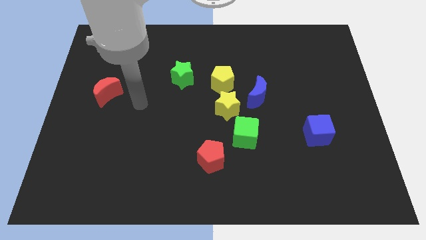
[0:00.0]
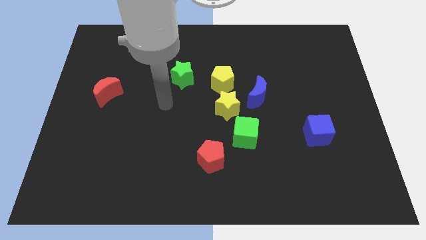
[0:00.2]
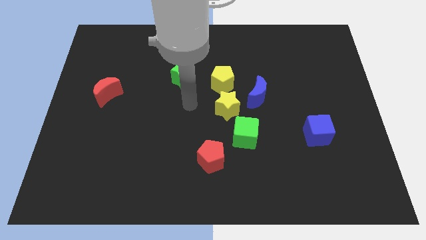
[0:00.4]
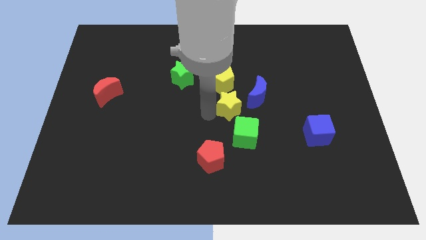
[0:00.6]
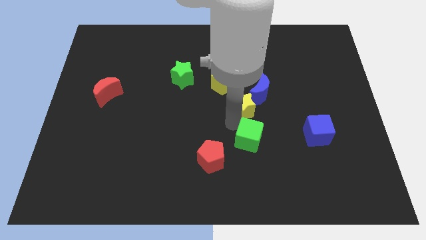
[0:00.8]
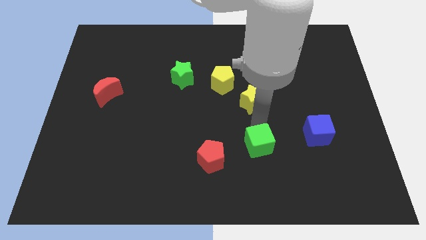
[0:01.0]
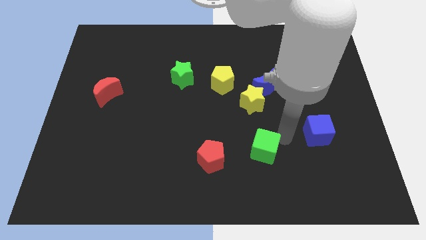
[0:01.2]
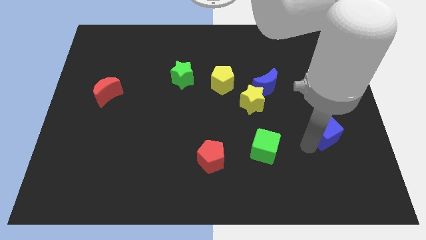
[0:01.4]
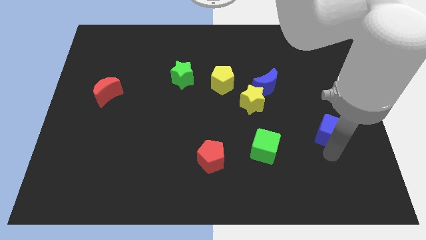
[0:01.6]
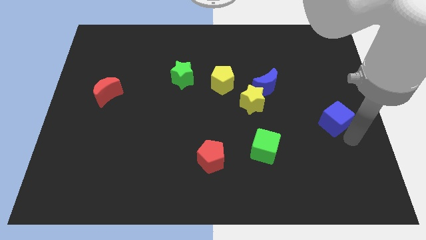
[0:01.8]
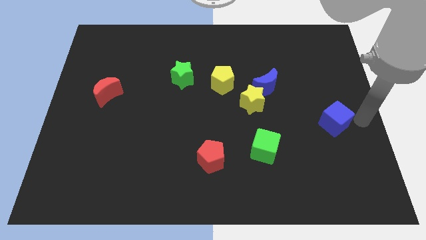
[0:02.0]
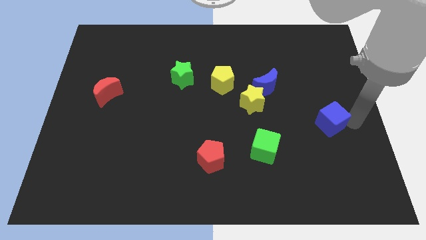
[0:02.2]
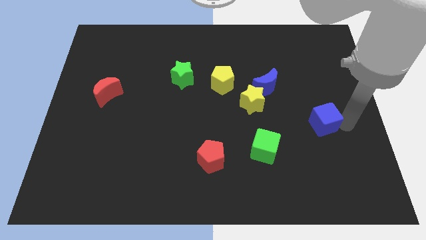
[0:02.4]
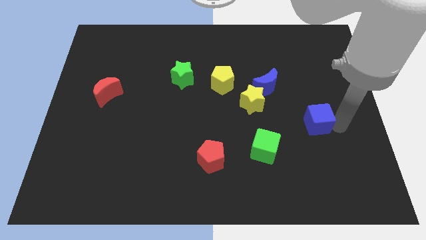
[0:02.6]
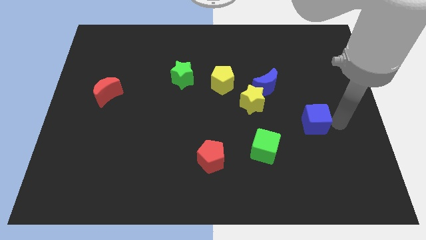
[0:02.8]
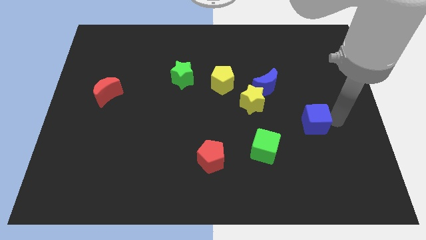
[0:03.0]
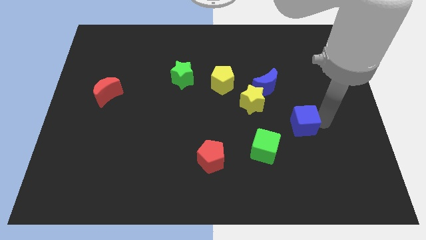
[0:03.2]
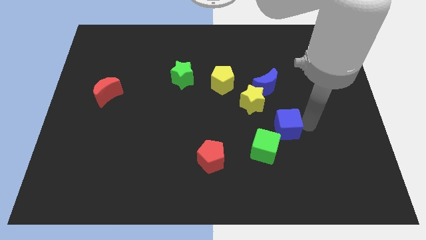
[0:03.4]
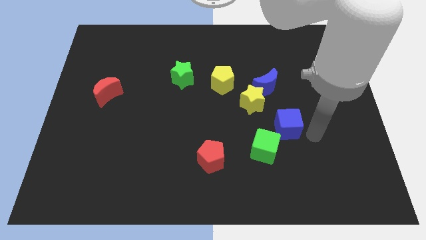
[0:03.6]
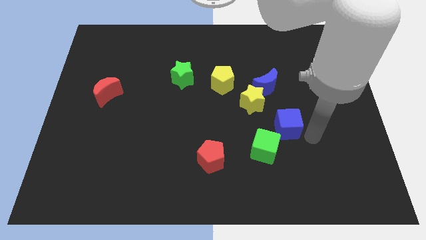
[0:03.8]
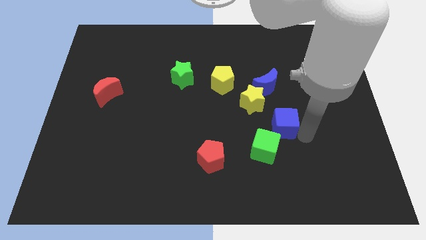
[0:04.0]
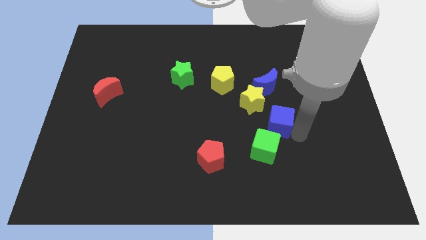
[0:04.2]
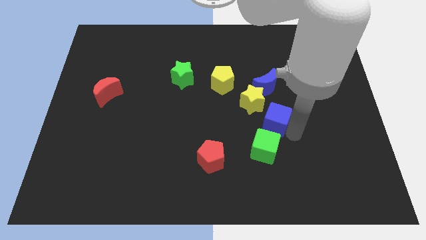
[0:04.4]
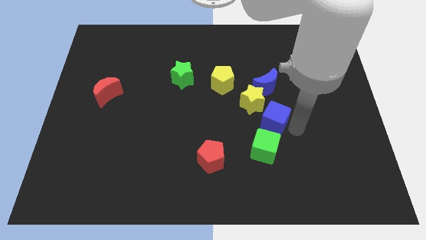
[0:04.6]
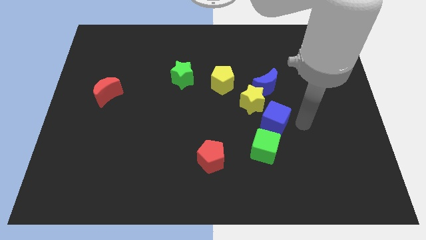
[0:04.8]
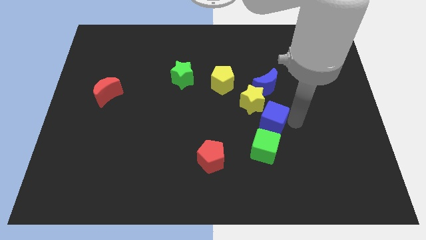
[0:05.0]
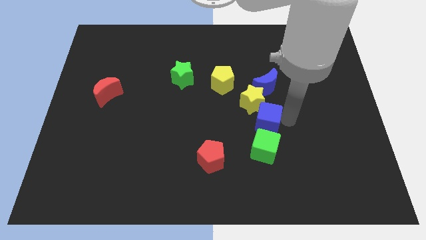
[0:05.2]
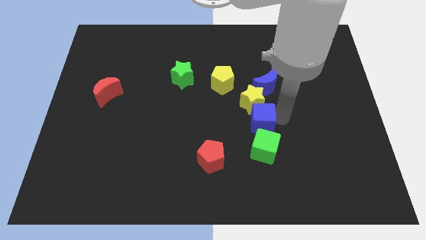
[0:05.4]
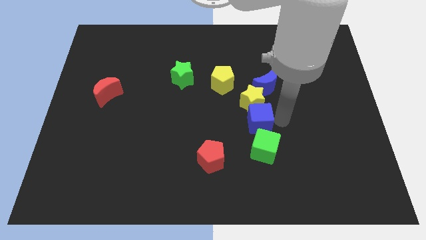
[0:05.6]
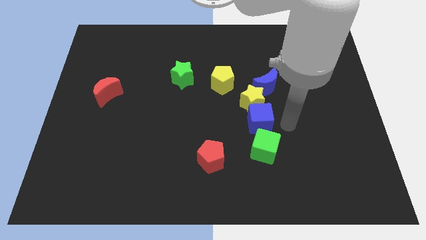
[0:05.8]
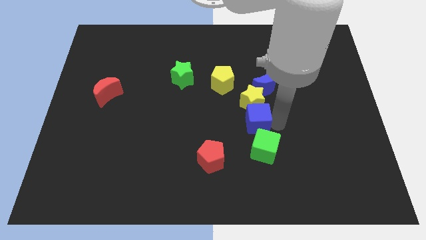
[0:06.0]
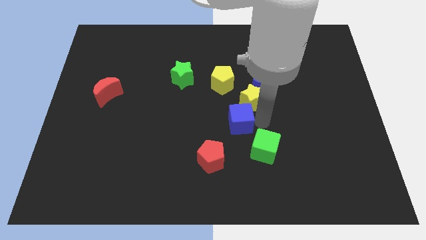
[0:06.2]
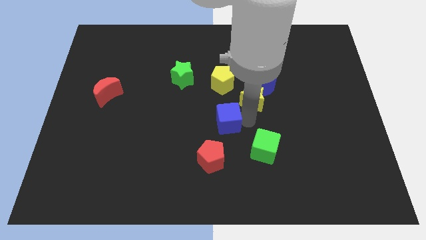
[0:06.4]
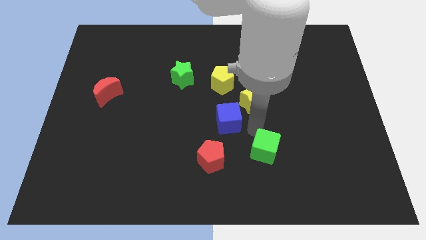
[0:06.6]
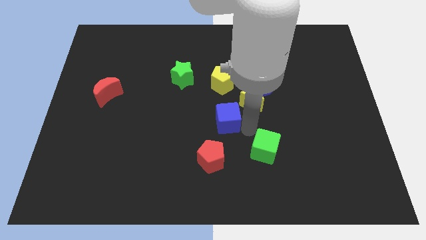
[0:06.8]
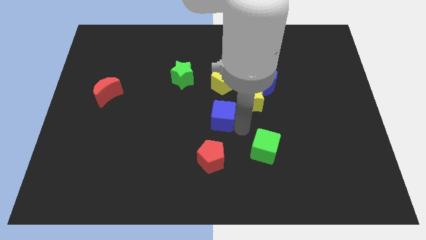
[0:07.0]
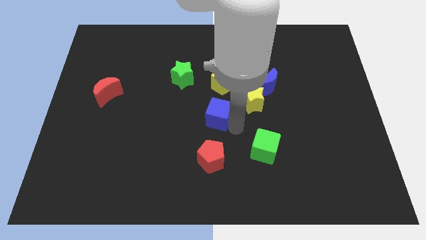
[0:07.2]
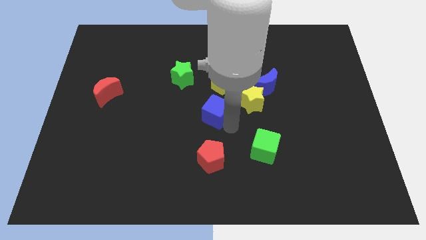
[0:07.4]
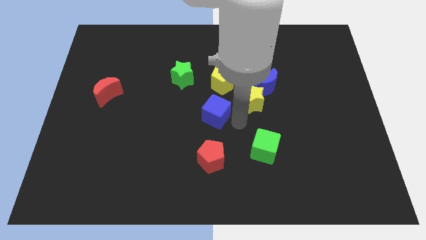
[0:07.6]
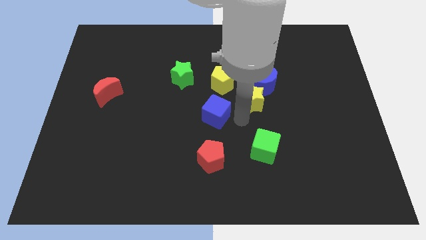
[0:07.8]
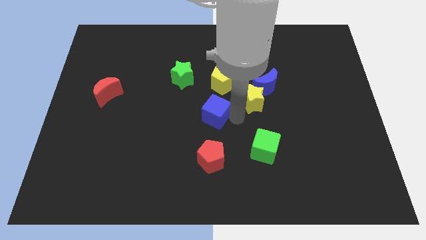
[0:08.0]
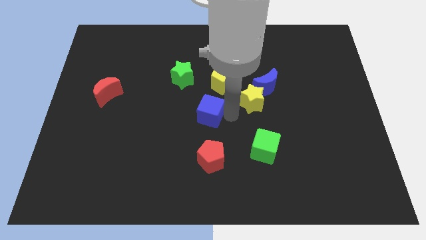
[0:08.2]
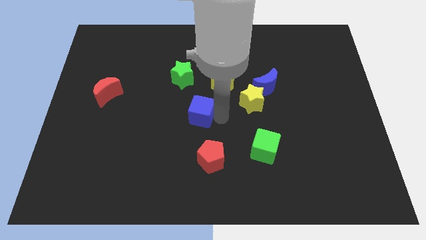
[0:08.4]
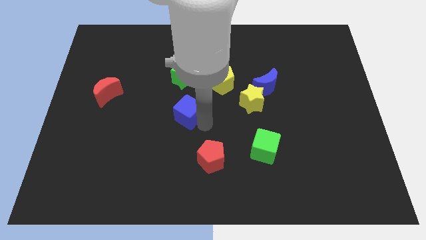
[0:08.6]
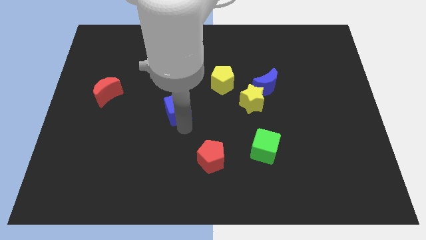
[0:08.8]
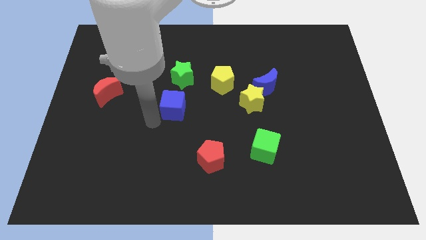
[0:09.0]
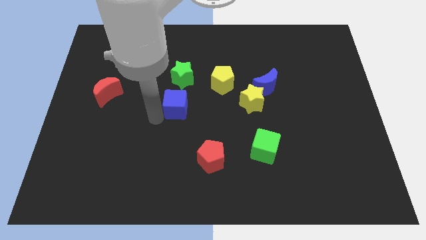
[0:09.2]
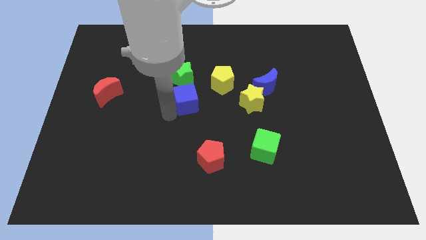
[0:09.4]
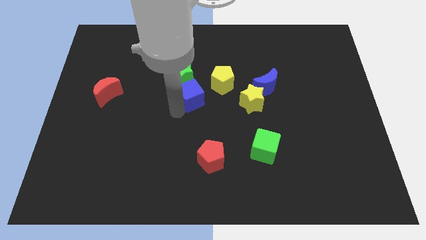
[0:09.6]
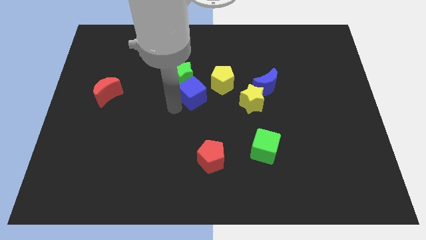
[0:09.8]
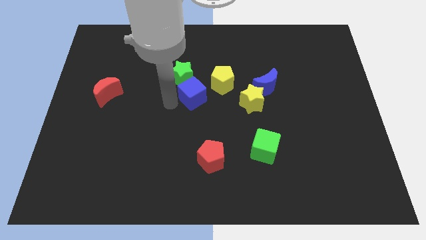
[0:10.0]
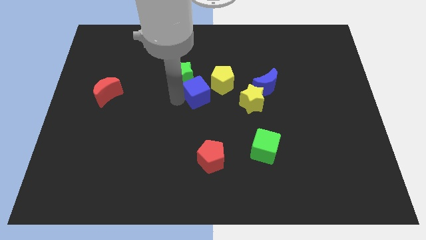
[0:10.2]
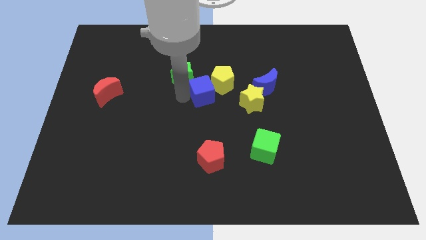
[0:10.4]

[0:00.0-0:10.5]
put the blue cube just left of the blue moon

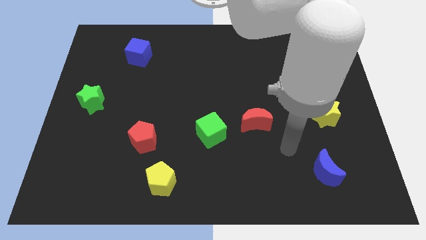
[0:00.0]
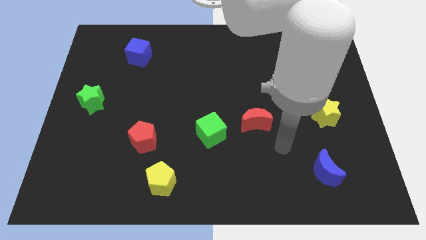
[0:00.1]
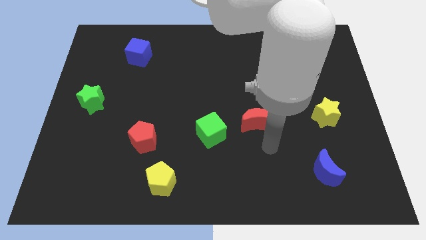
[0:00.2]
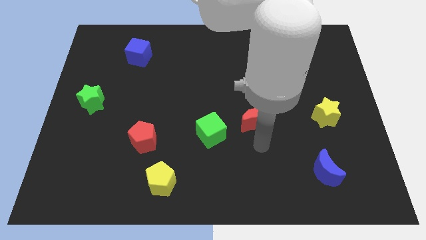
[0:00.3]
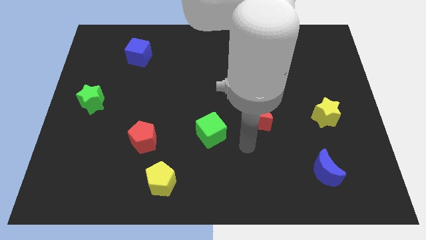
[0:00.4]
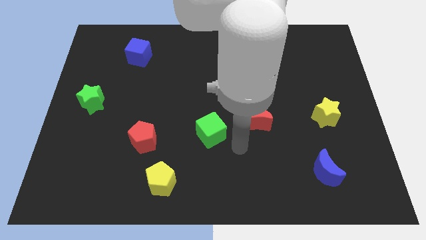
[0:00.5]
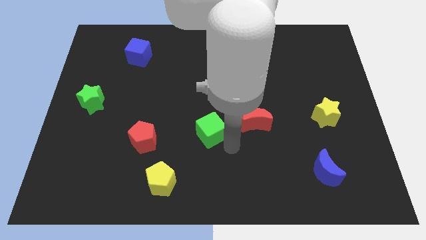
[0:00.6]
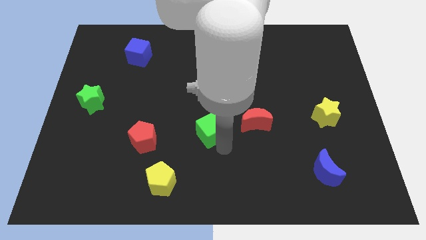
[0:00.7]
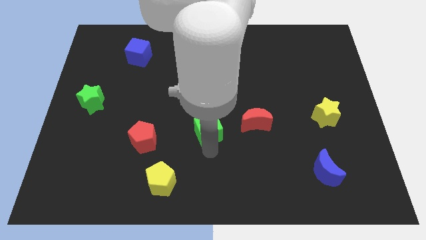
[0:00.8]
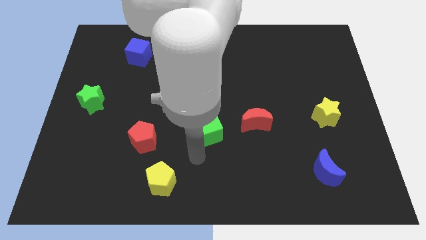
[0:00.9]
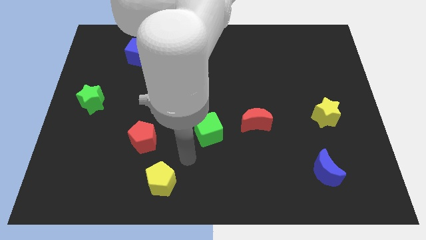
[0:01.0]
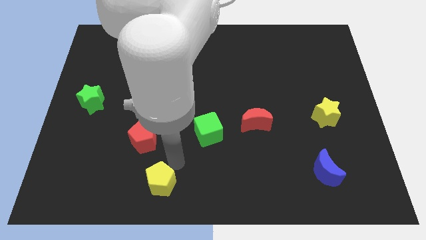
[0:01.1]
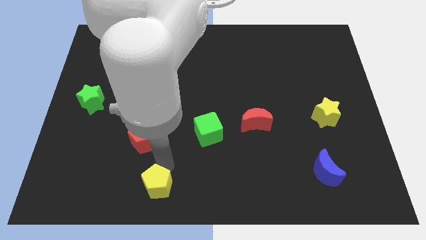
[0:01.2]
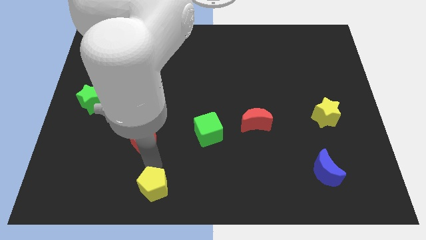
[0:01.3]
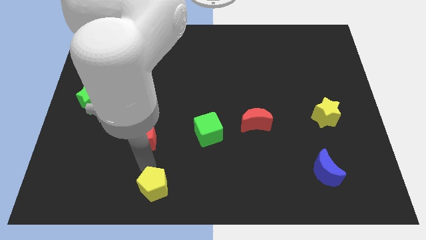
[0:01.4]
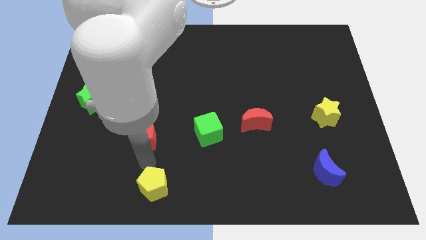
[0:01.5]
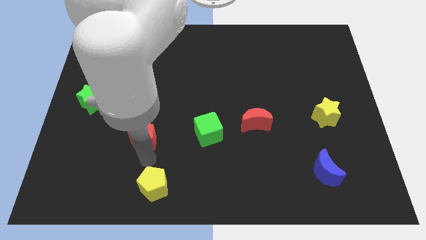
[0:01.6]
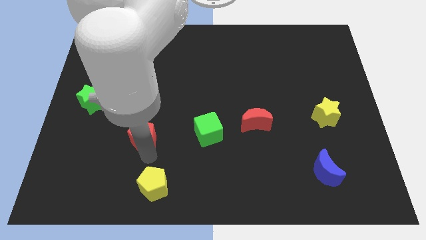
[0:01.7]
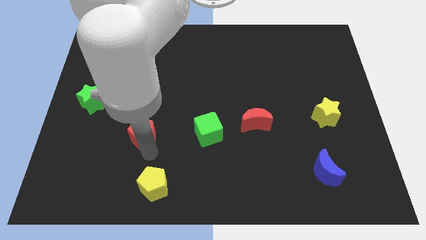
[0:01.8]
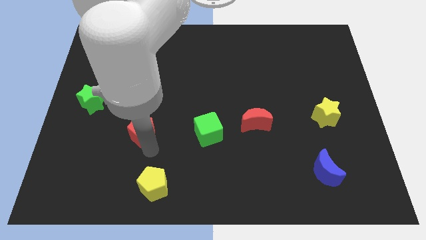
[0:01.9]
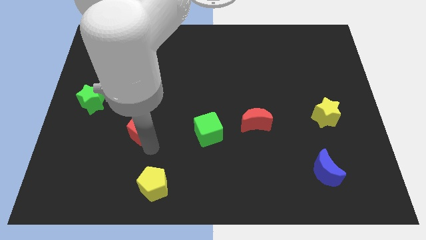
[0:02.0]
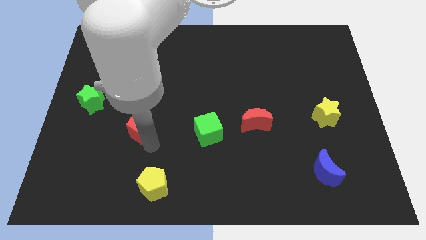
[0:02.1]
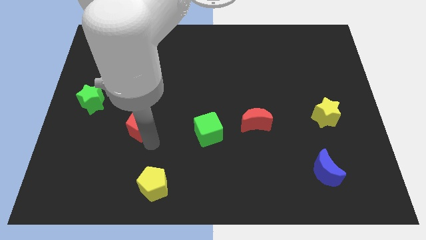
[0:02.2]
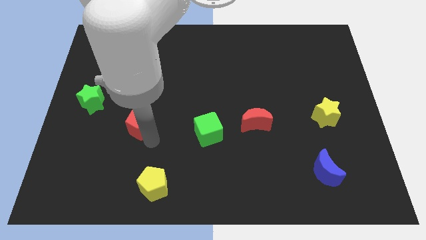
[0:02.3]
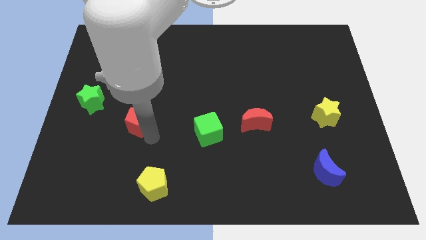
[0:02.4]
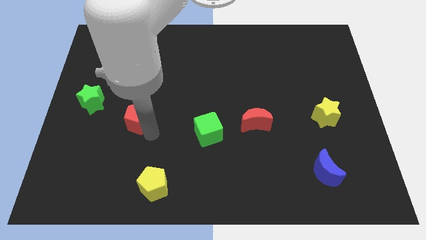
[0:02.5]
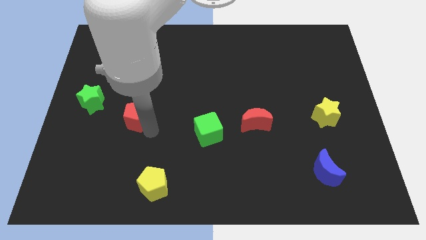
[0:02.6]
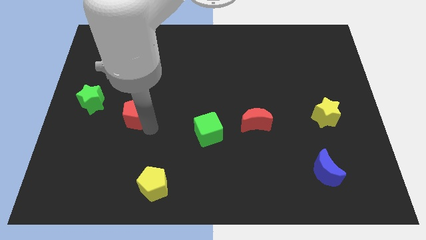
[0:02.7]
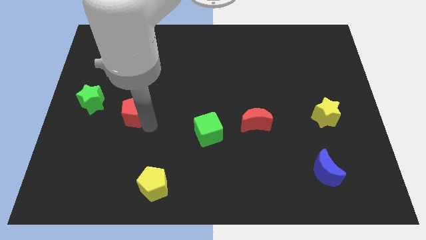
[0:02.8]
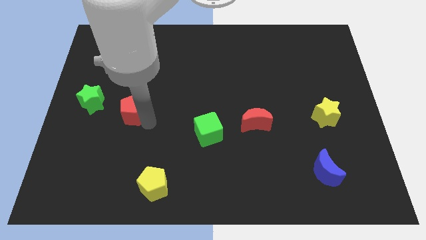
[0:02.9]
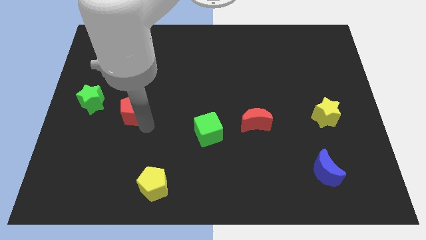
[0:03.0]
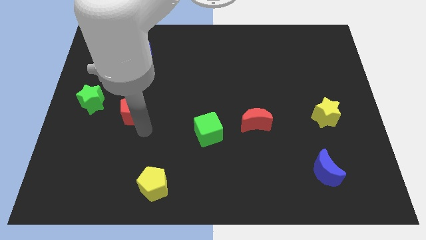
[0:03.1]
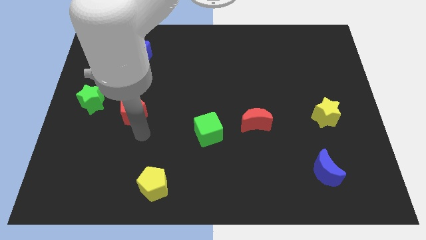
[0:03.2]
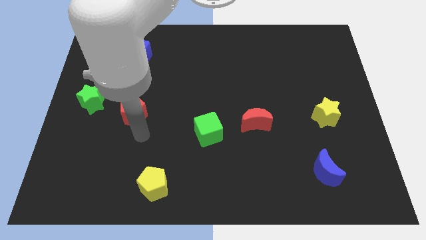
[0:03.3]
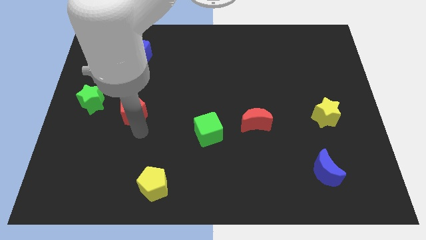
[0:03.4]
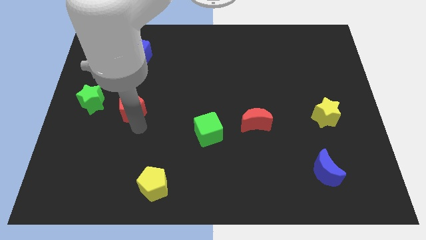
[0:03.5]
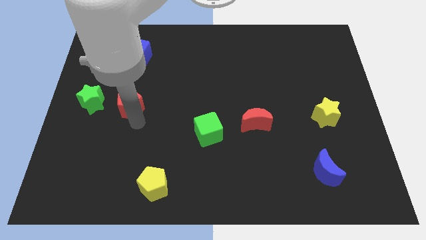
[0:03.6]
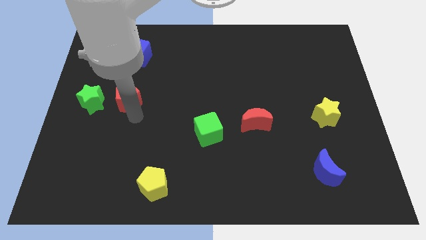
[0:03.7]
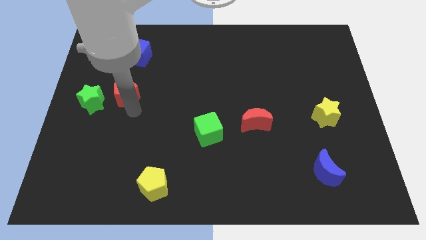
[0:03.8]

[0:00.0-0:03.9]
slide the red pentagon to the top right side of the green star
